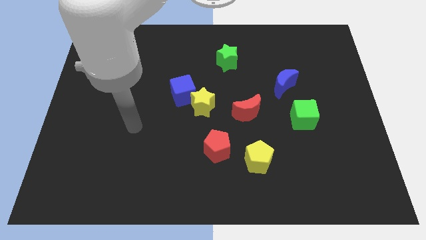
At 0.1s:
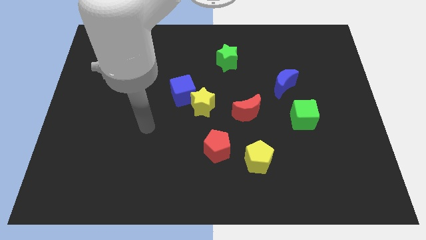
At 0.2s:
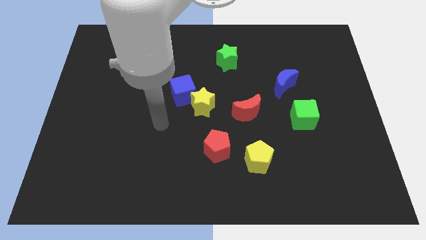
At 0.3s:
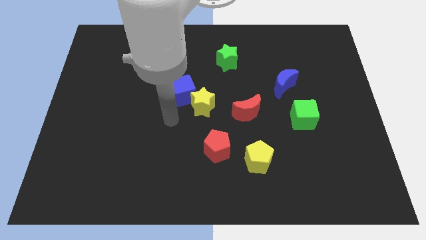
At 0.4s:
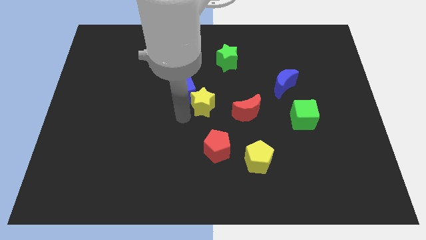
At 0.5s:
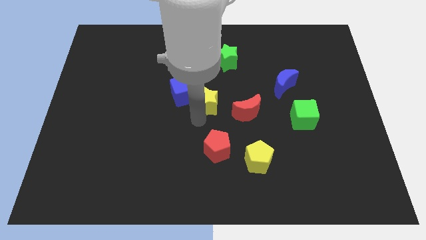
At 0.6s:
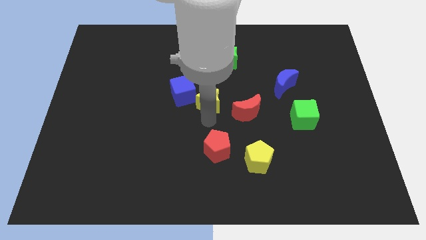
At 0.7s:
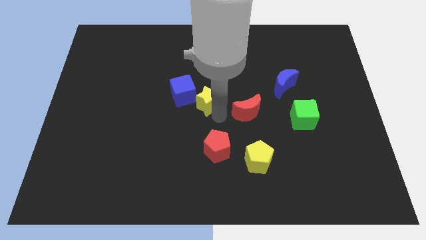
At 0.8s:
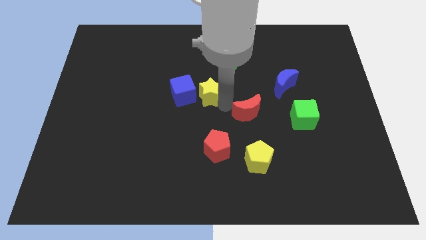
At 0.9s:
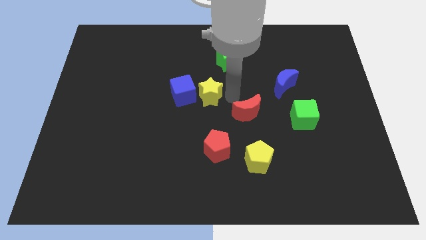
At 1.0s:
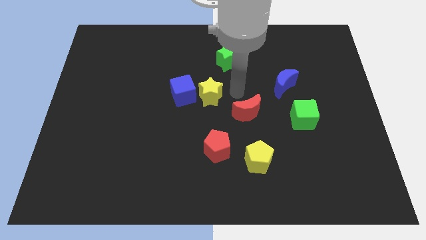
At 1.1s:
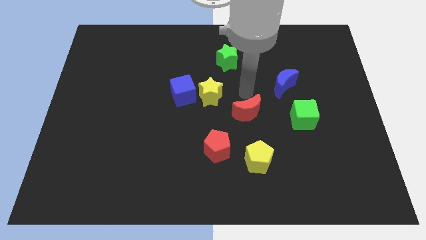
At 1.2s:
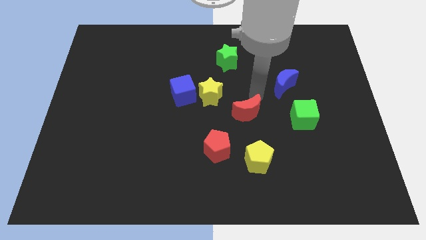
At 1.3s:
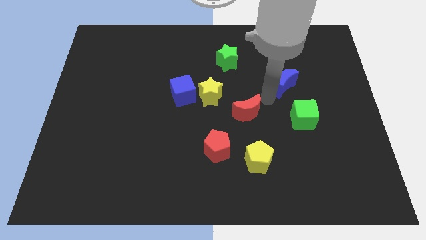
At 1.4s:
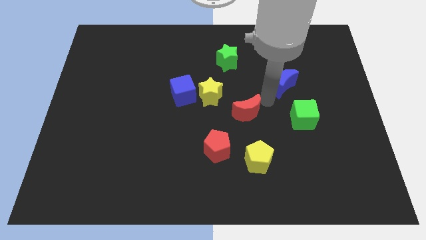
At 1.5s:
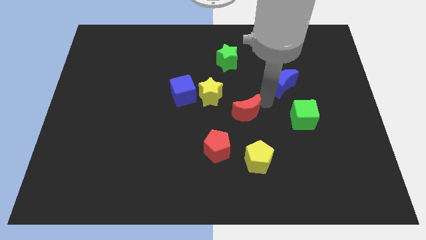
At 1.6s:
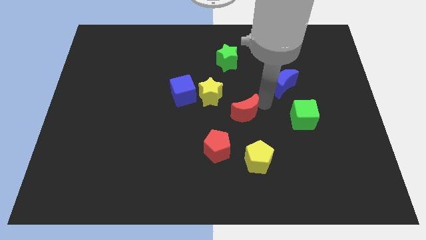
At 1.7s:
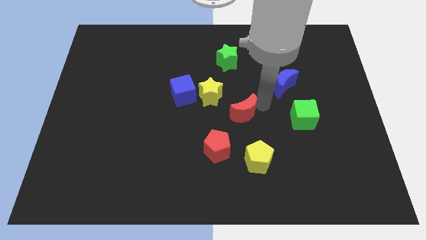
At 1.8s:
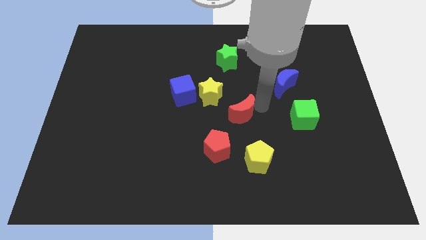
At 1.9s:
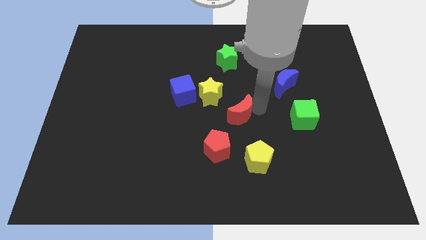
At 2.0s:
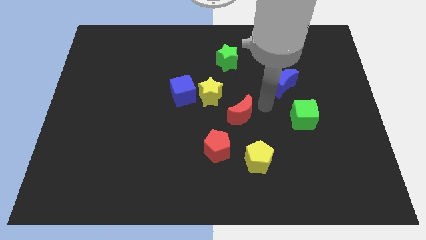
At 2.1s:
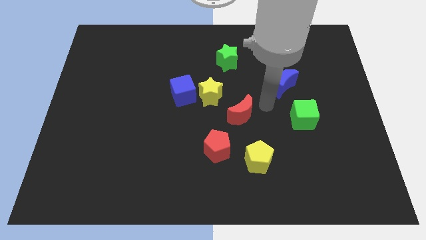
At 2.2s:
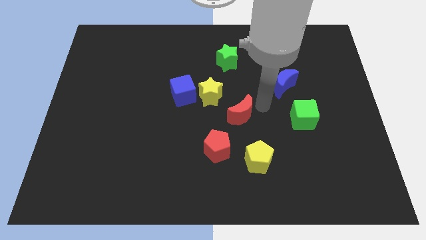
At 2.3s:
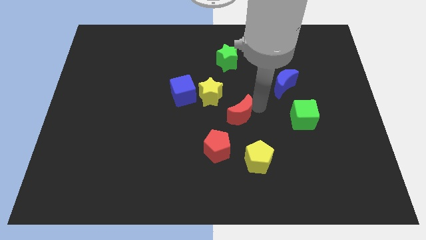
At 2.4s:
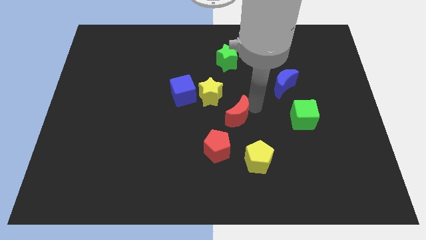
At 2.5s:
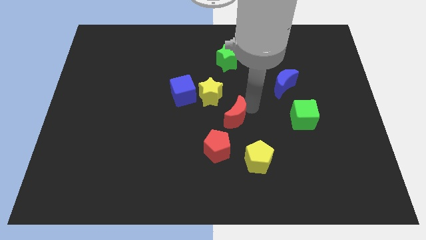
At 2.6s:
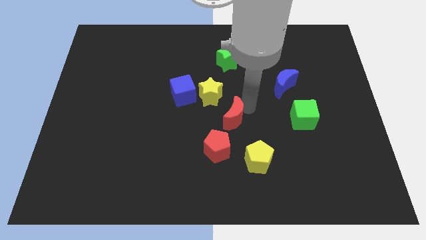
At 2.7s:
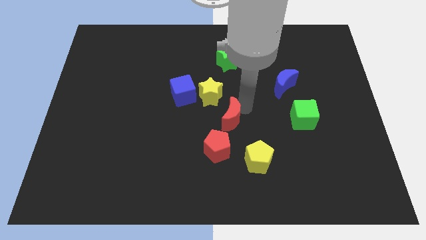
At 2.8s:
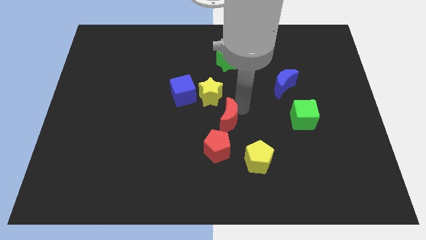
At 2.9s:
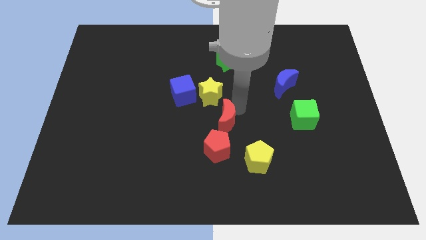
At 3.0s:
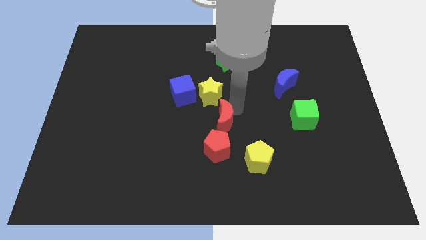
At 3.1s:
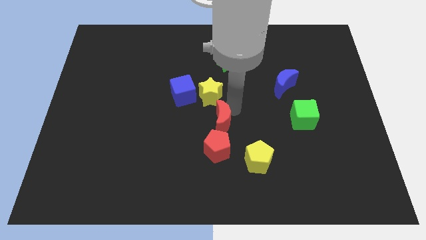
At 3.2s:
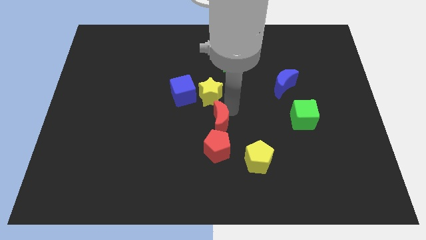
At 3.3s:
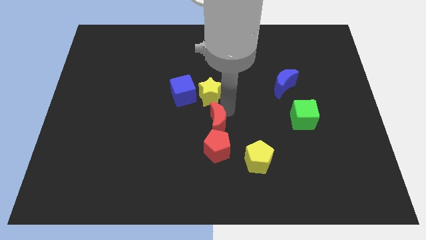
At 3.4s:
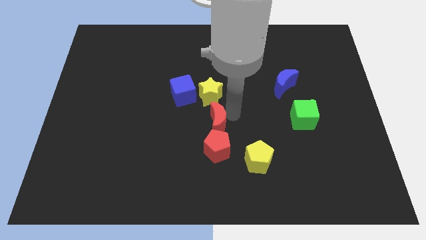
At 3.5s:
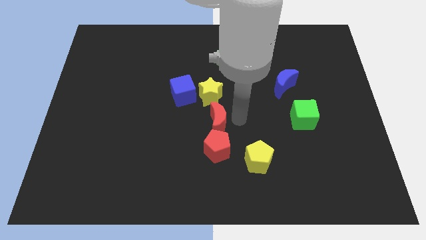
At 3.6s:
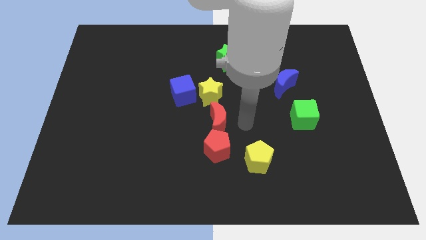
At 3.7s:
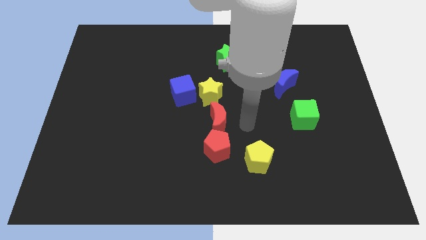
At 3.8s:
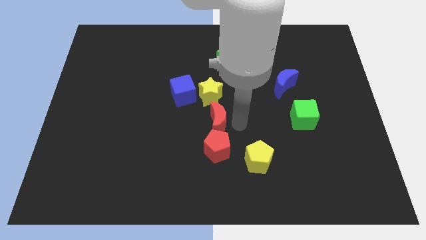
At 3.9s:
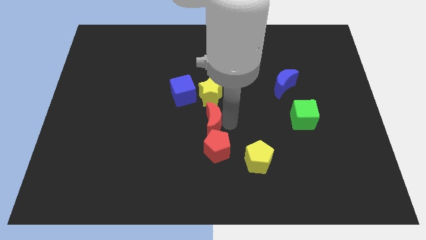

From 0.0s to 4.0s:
push the red moon to the left somewhat

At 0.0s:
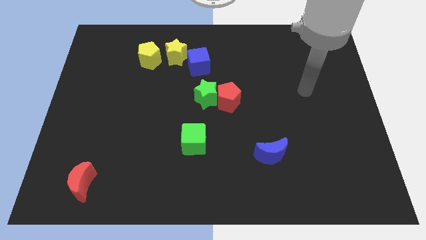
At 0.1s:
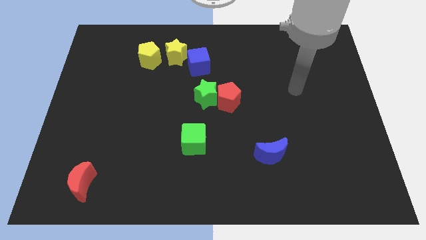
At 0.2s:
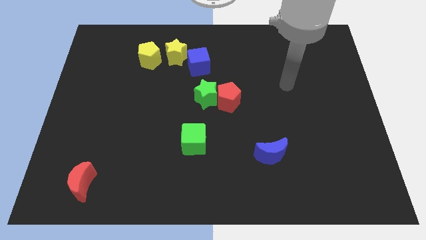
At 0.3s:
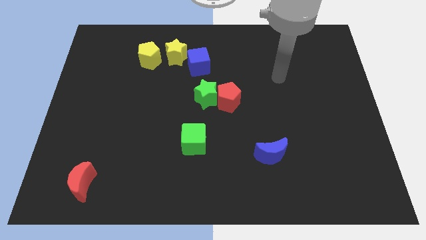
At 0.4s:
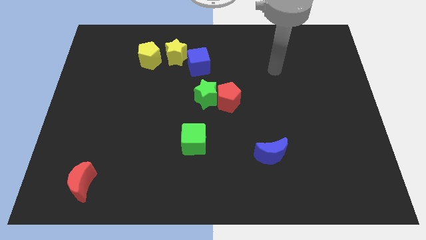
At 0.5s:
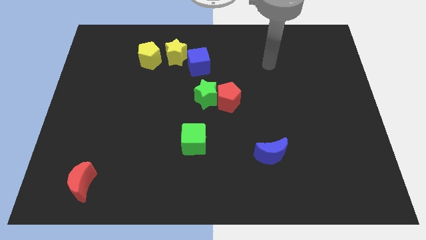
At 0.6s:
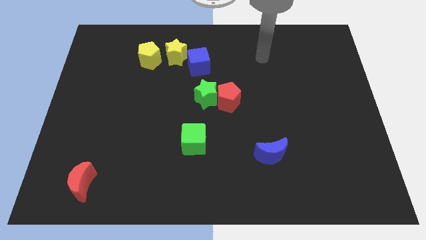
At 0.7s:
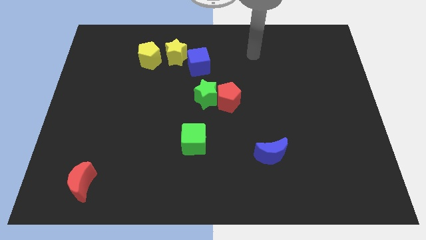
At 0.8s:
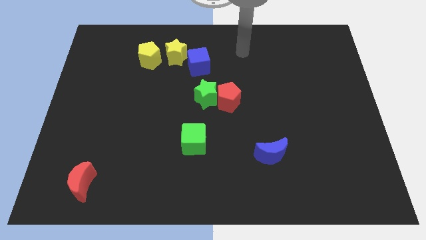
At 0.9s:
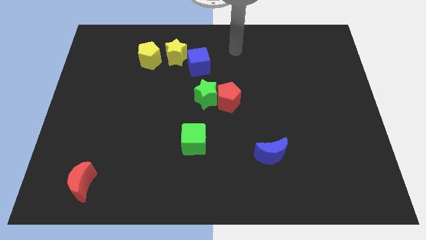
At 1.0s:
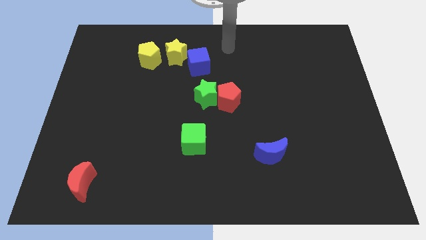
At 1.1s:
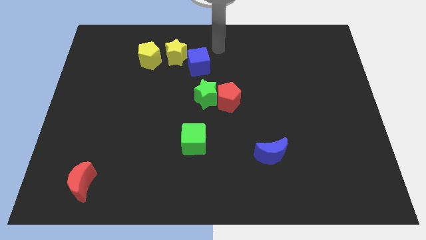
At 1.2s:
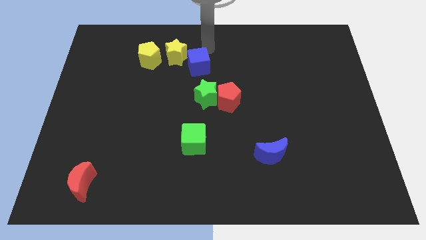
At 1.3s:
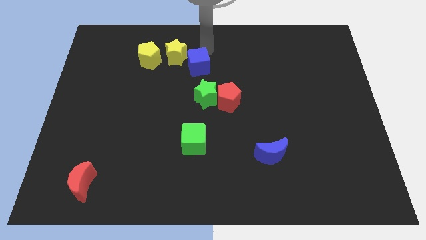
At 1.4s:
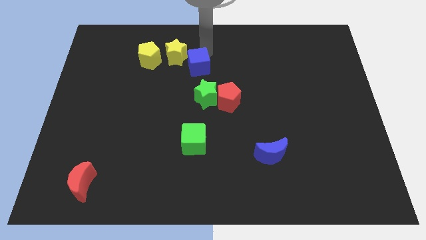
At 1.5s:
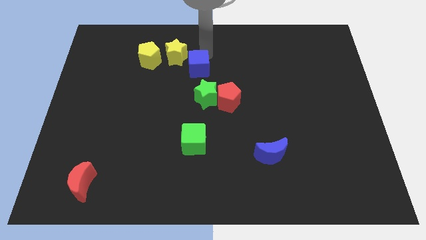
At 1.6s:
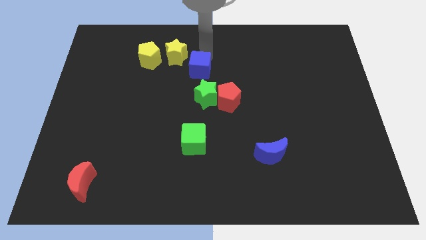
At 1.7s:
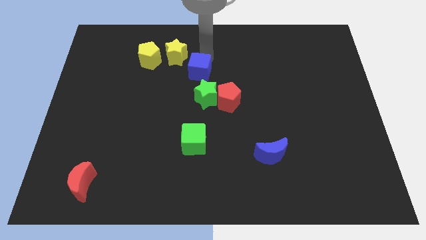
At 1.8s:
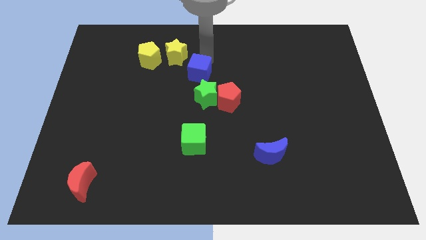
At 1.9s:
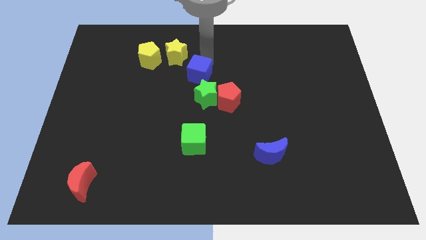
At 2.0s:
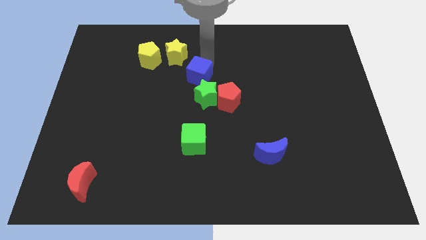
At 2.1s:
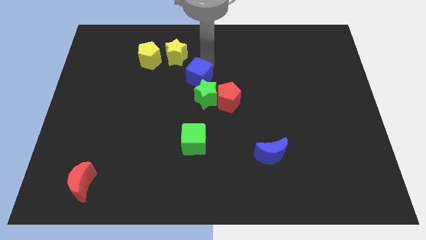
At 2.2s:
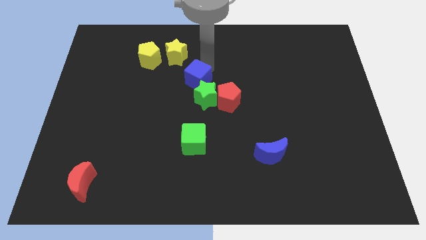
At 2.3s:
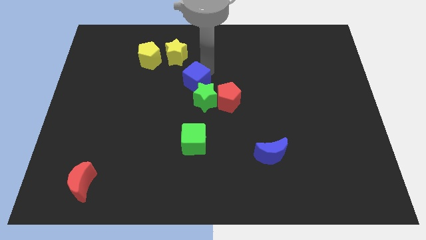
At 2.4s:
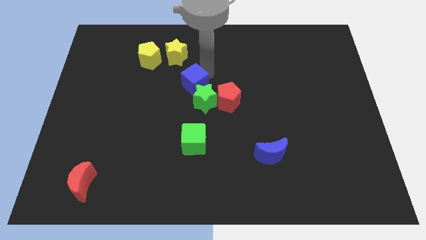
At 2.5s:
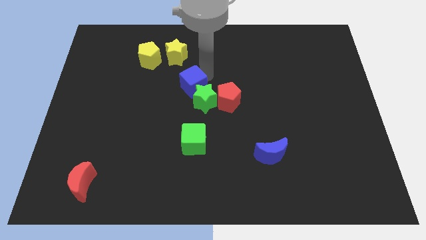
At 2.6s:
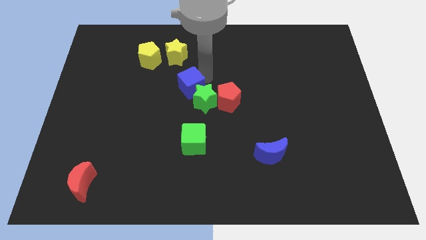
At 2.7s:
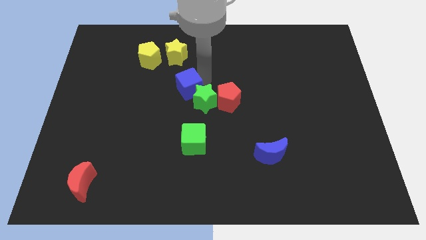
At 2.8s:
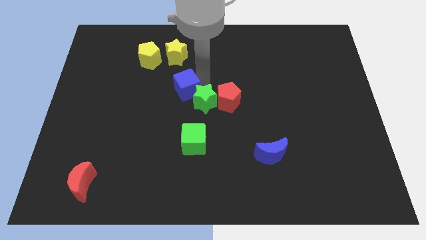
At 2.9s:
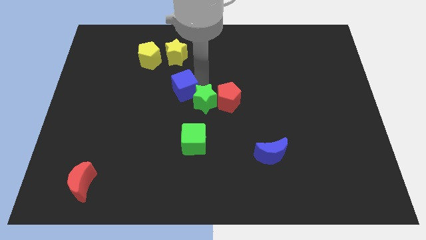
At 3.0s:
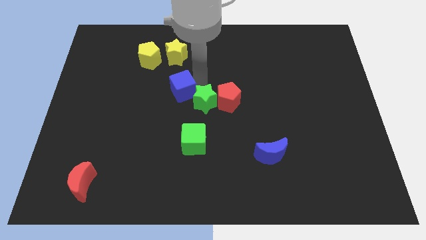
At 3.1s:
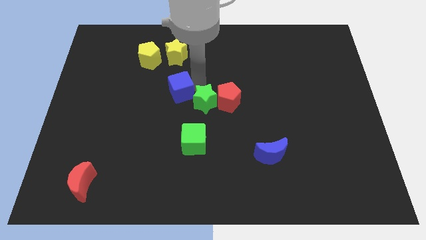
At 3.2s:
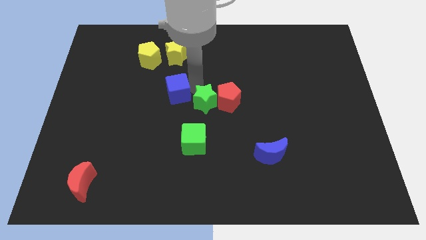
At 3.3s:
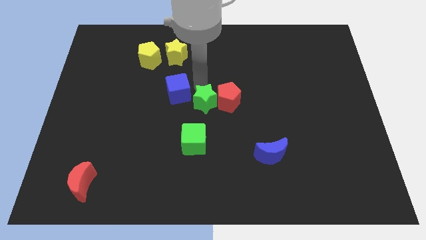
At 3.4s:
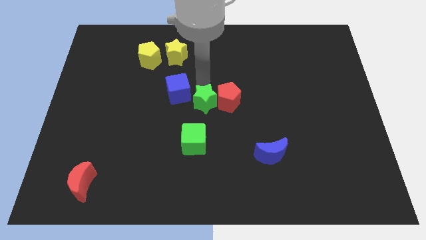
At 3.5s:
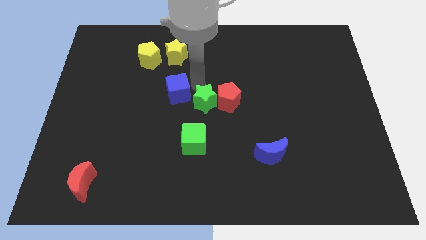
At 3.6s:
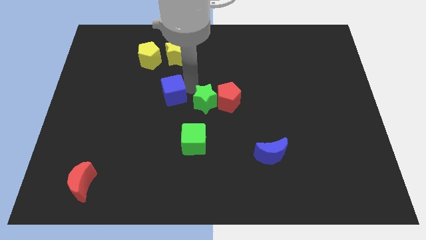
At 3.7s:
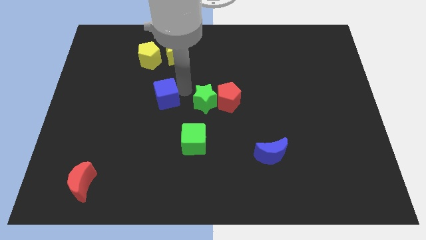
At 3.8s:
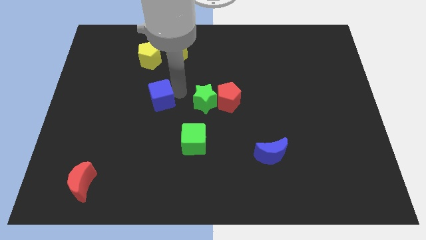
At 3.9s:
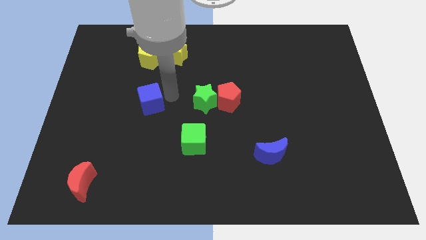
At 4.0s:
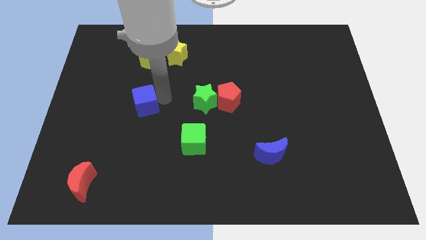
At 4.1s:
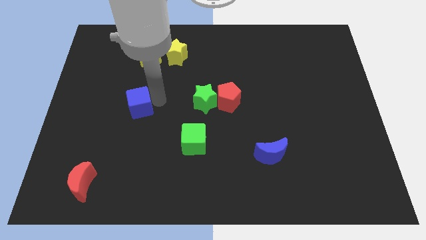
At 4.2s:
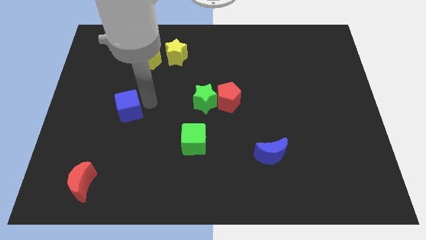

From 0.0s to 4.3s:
push the blue cube downwards and to the left
